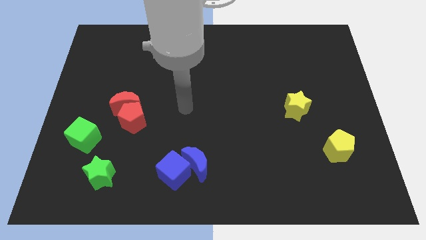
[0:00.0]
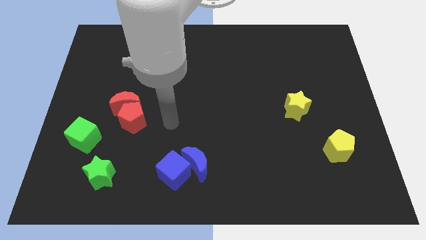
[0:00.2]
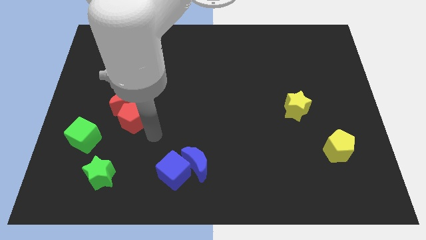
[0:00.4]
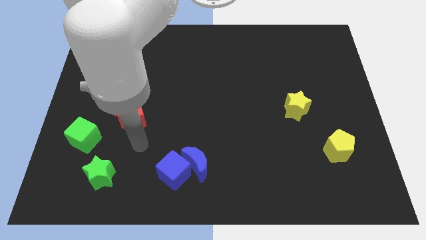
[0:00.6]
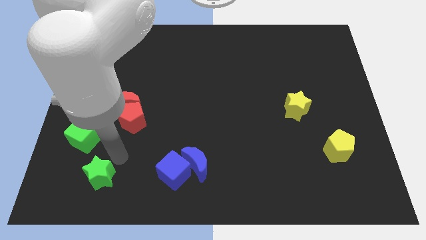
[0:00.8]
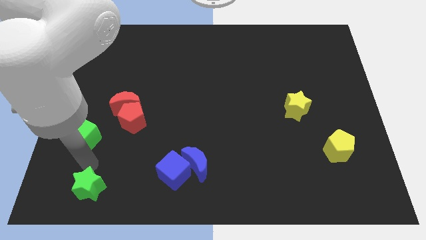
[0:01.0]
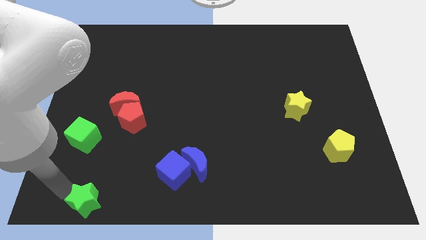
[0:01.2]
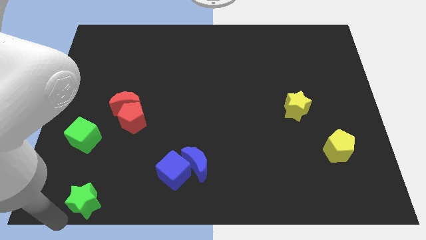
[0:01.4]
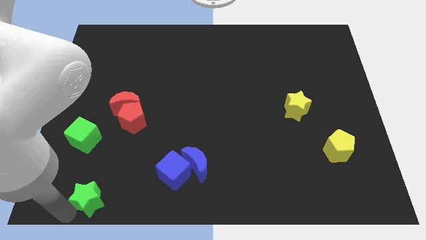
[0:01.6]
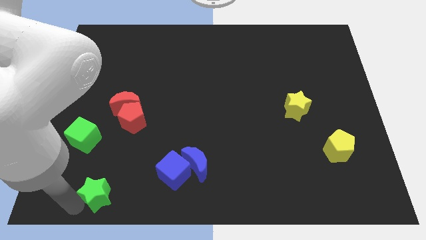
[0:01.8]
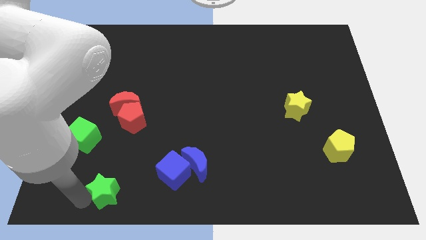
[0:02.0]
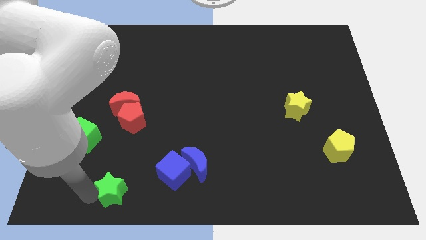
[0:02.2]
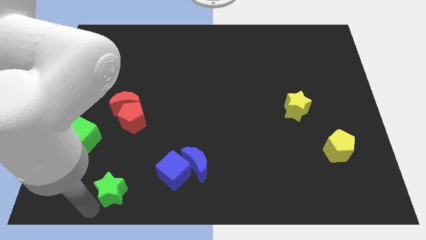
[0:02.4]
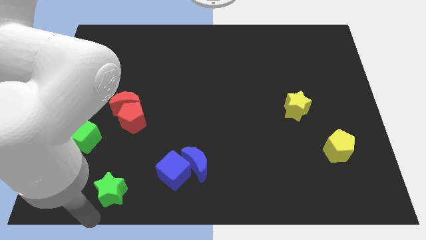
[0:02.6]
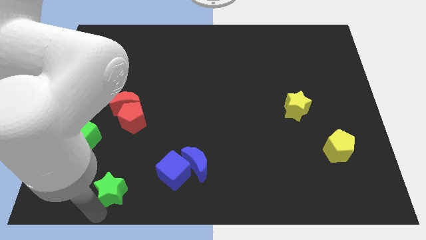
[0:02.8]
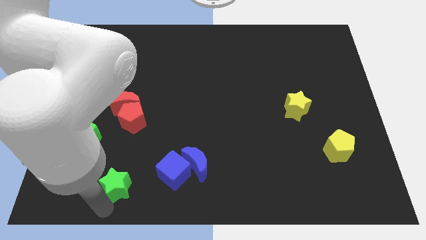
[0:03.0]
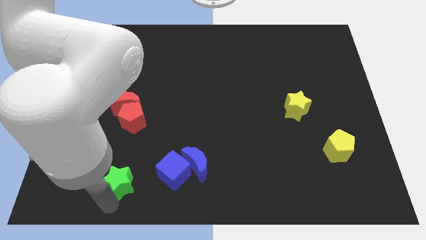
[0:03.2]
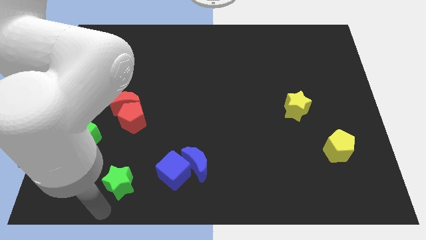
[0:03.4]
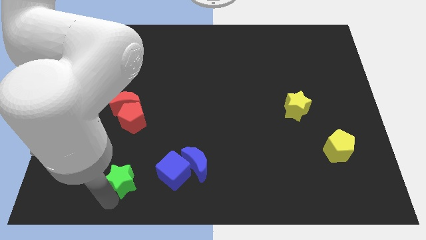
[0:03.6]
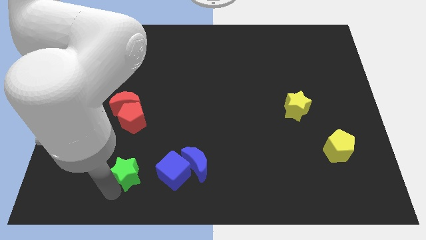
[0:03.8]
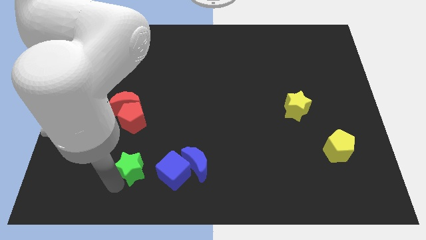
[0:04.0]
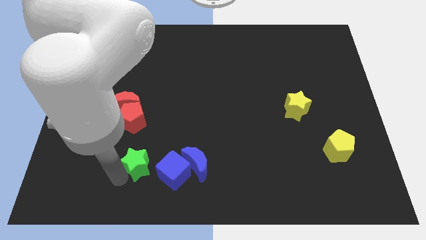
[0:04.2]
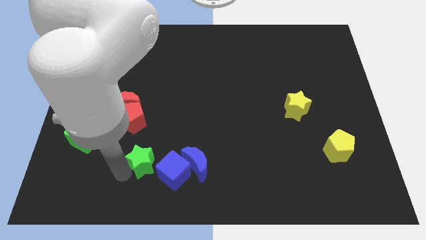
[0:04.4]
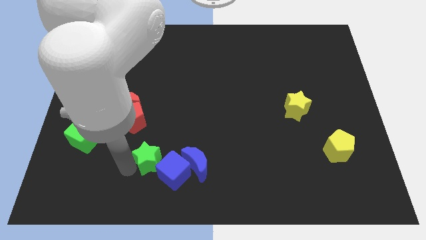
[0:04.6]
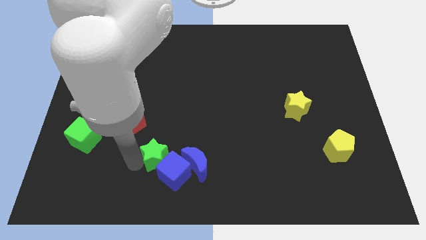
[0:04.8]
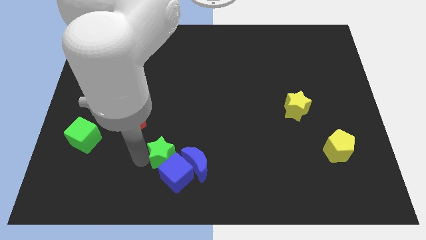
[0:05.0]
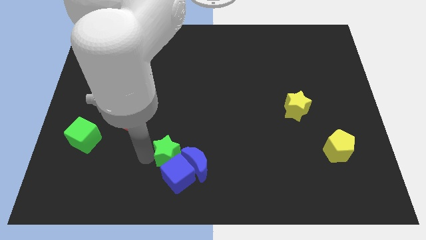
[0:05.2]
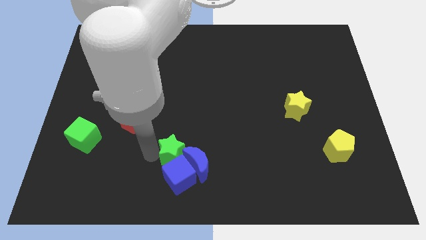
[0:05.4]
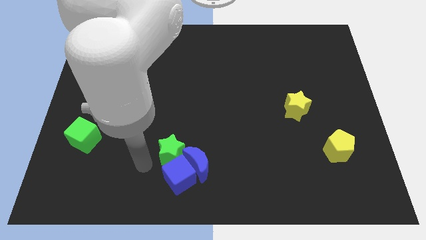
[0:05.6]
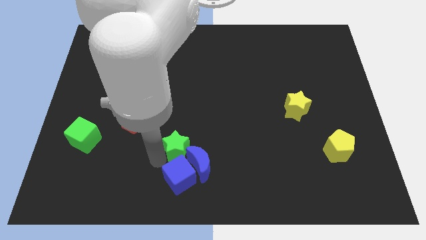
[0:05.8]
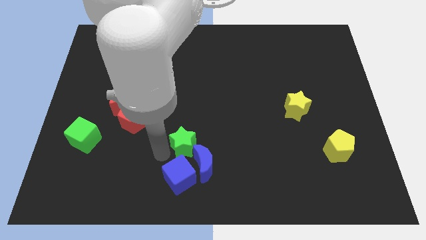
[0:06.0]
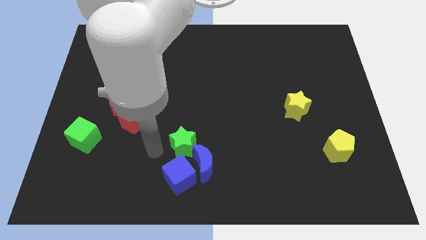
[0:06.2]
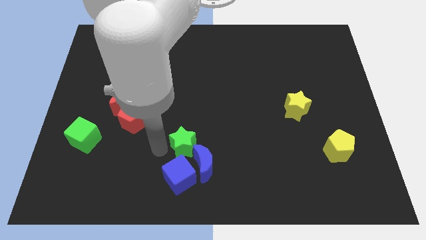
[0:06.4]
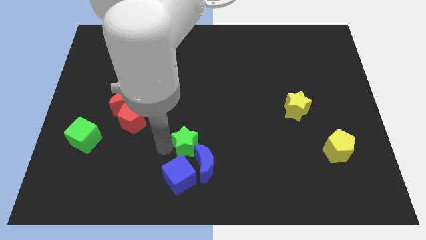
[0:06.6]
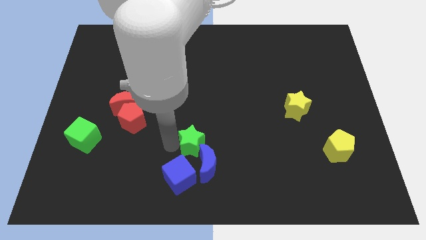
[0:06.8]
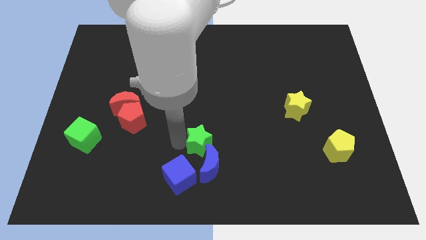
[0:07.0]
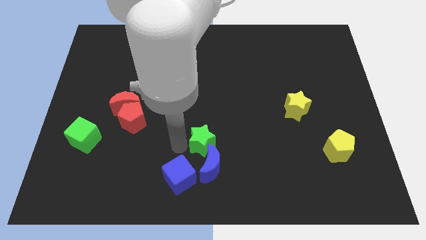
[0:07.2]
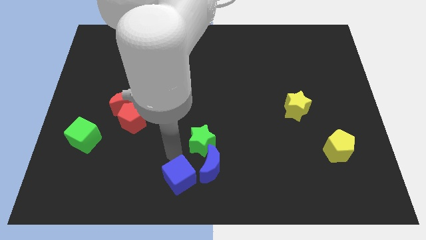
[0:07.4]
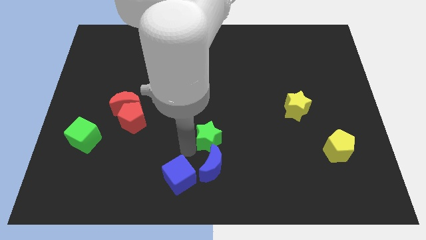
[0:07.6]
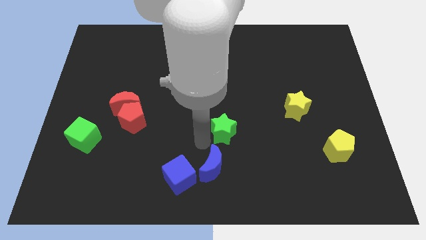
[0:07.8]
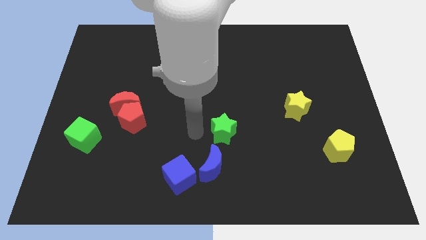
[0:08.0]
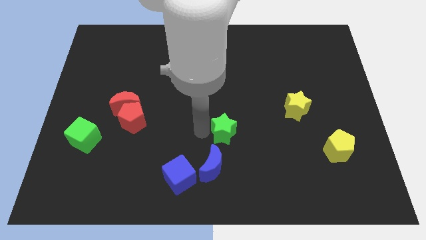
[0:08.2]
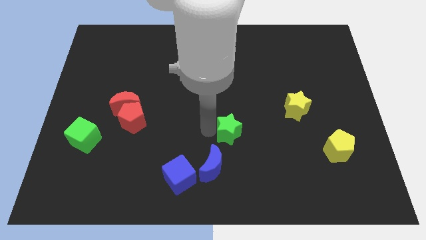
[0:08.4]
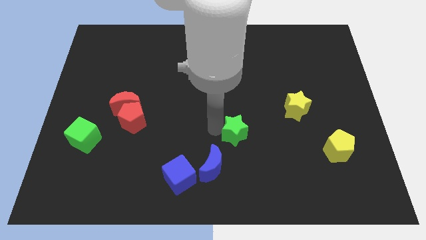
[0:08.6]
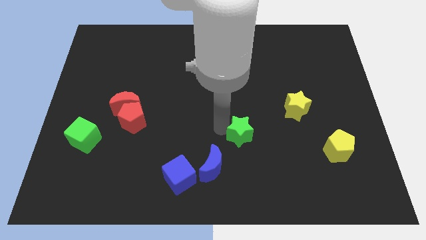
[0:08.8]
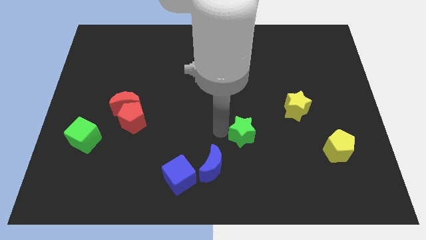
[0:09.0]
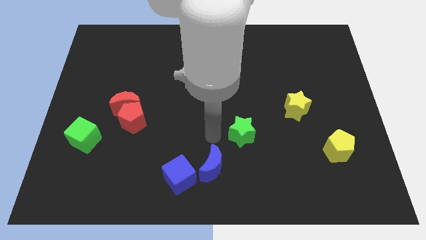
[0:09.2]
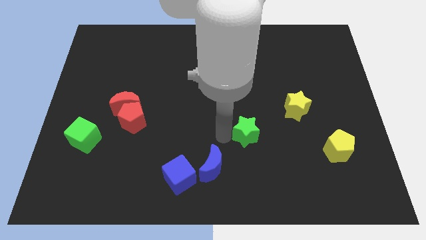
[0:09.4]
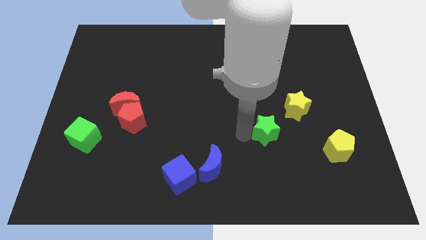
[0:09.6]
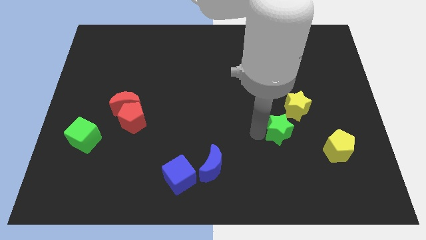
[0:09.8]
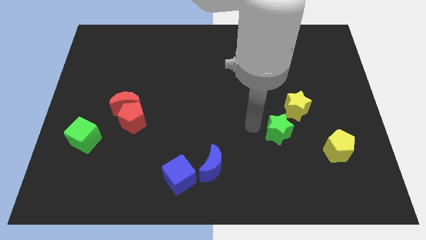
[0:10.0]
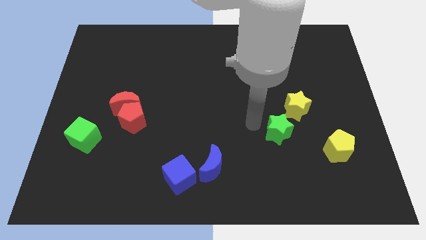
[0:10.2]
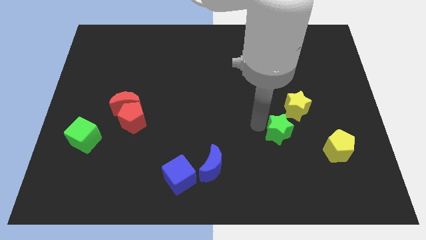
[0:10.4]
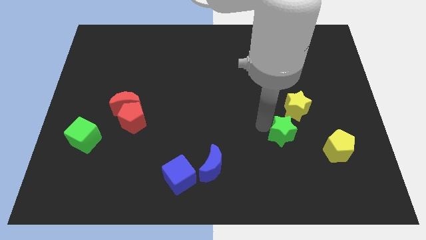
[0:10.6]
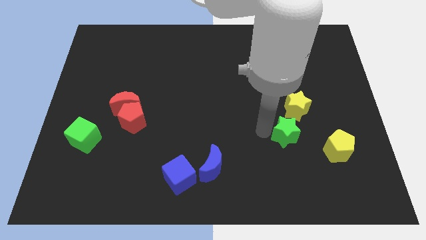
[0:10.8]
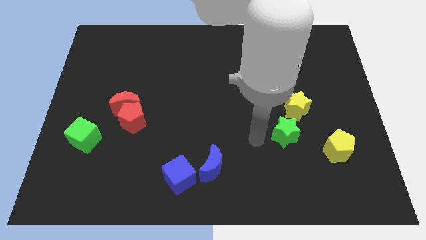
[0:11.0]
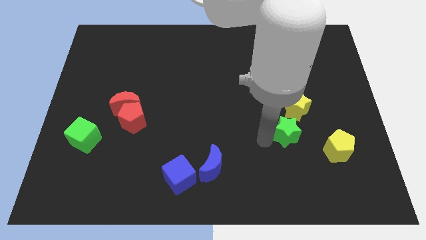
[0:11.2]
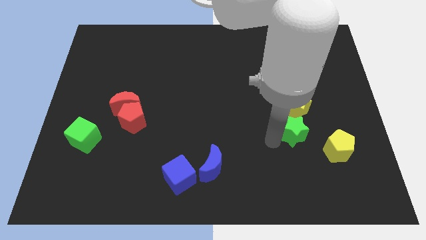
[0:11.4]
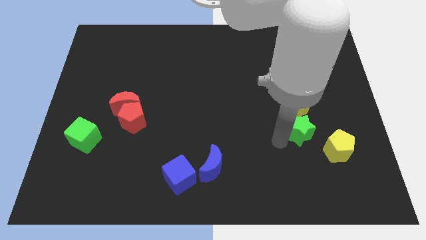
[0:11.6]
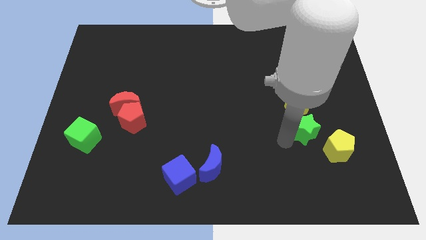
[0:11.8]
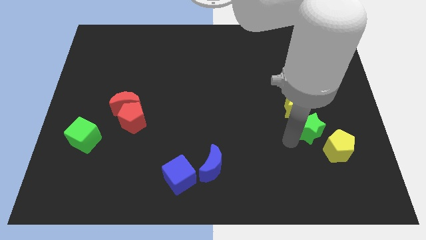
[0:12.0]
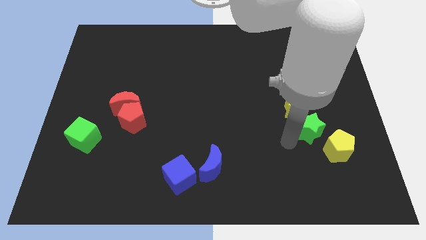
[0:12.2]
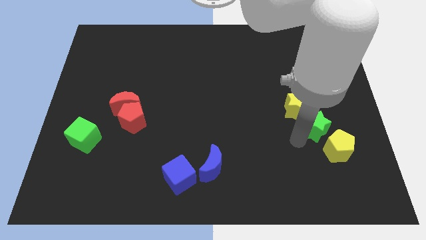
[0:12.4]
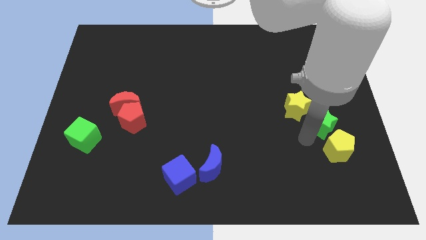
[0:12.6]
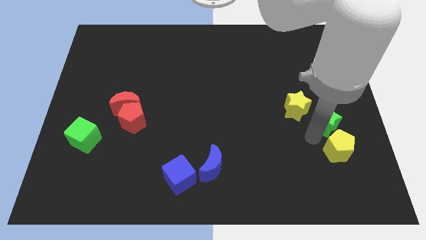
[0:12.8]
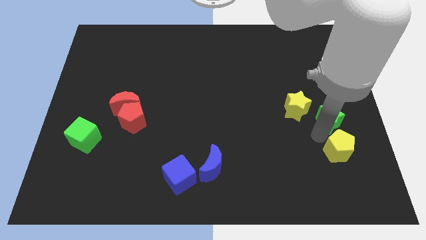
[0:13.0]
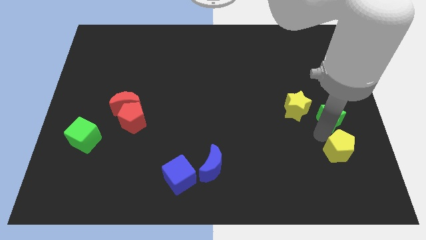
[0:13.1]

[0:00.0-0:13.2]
slide the green star to the right side of the board
